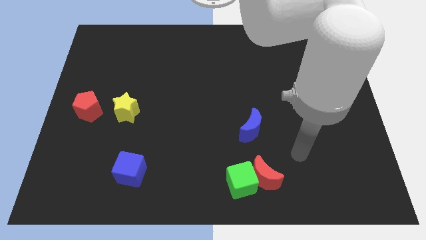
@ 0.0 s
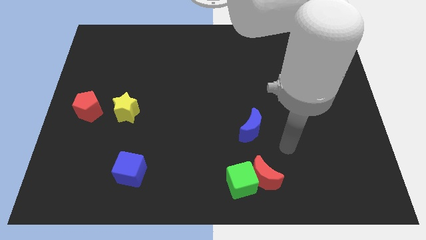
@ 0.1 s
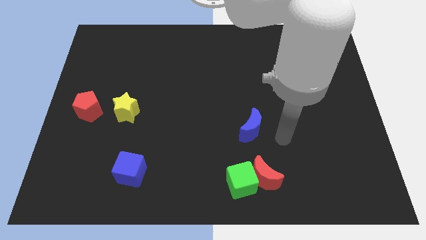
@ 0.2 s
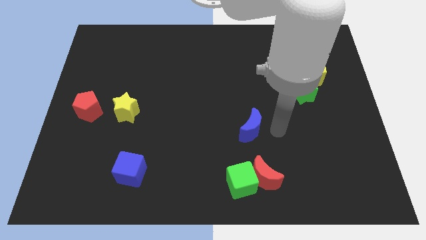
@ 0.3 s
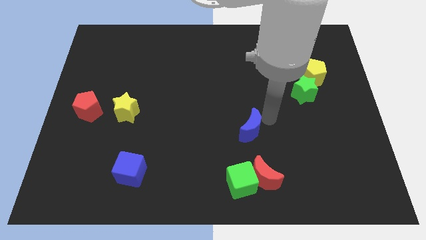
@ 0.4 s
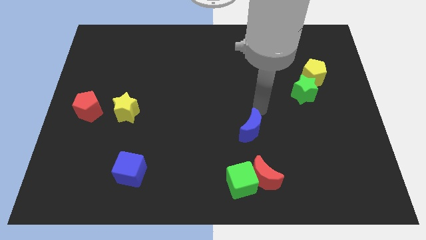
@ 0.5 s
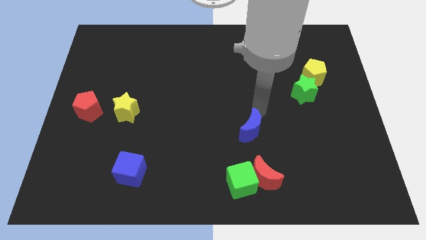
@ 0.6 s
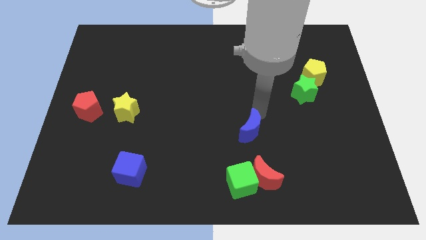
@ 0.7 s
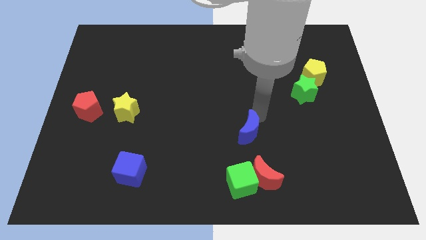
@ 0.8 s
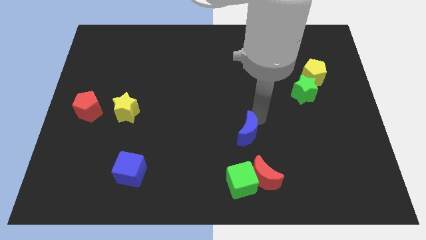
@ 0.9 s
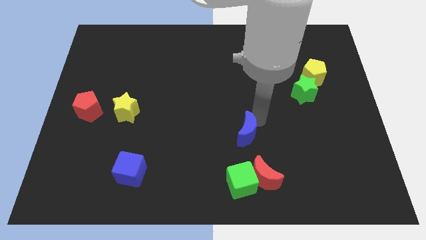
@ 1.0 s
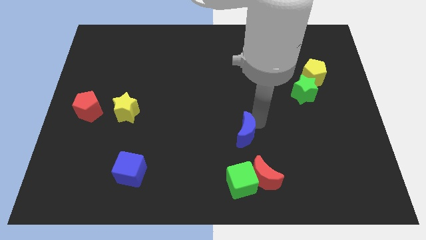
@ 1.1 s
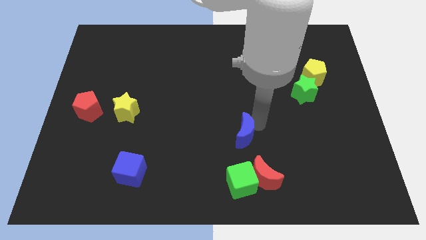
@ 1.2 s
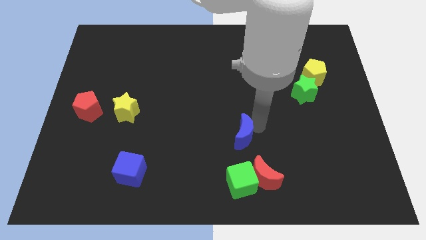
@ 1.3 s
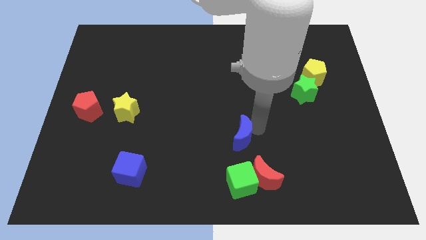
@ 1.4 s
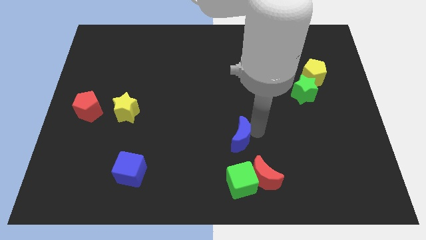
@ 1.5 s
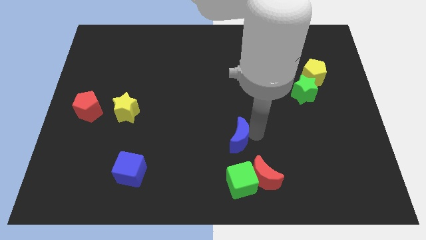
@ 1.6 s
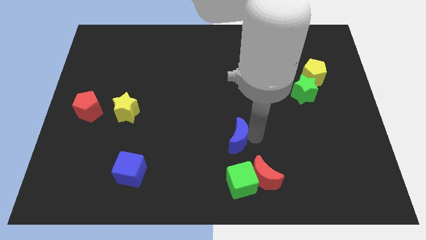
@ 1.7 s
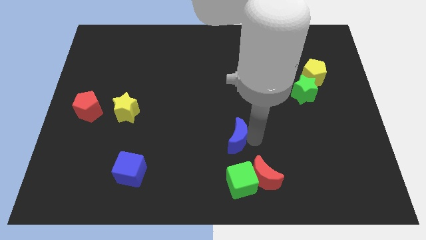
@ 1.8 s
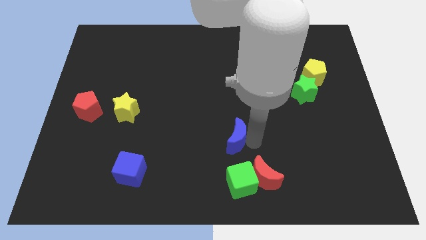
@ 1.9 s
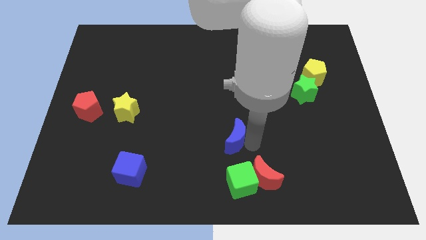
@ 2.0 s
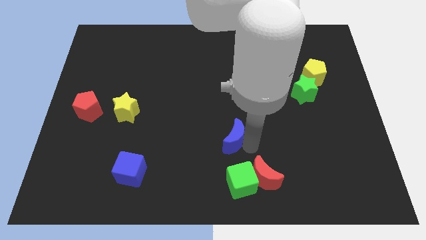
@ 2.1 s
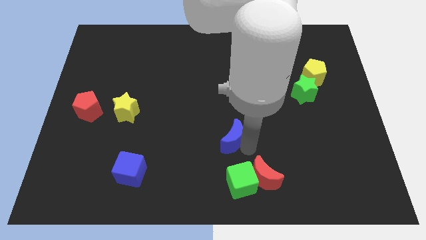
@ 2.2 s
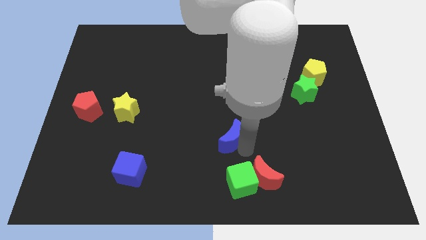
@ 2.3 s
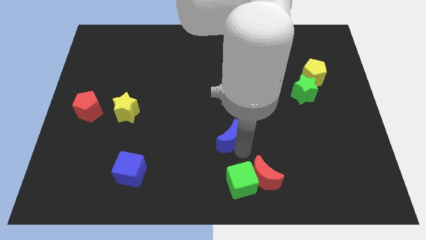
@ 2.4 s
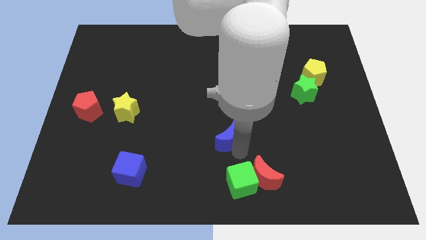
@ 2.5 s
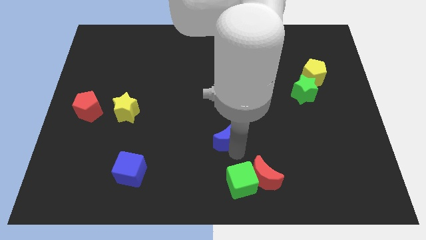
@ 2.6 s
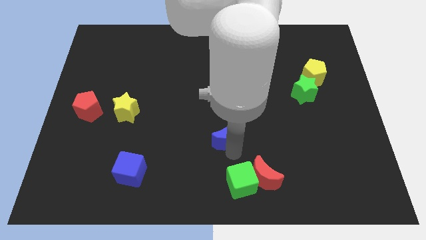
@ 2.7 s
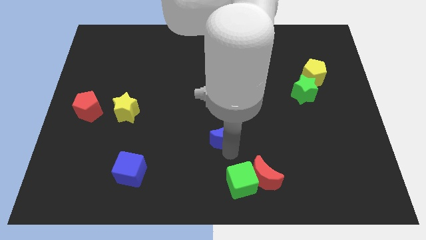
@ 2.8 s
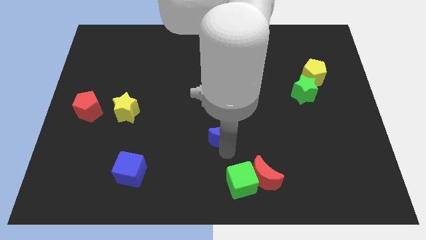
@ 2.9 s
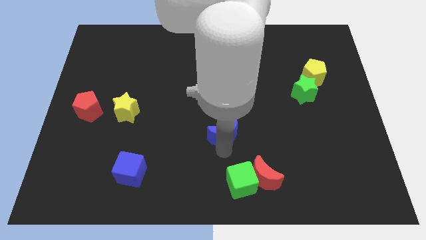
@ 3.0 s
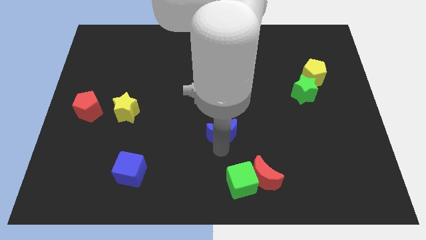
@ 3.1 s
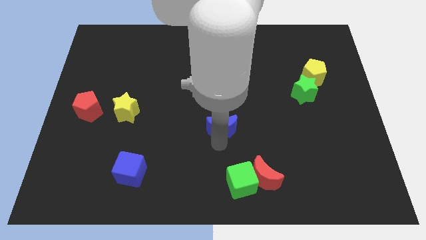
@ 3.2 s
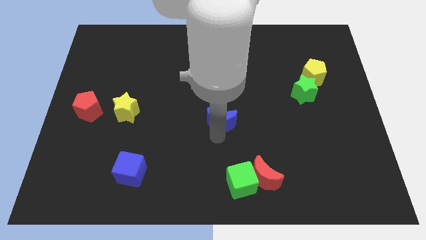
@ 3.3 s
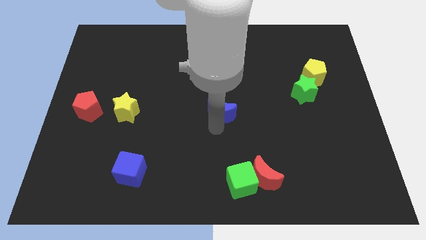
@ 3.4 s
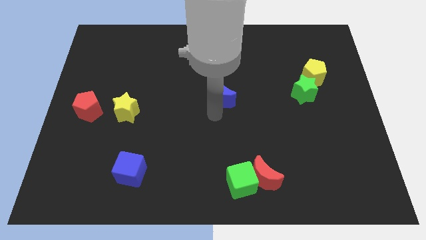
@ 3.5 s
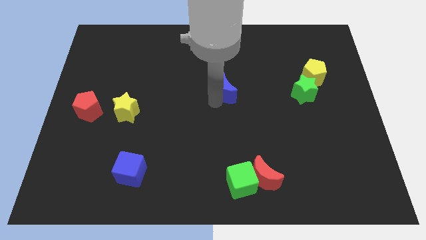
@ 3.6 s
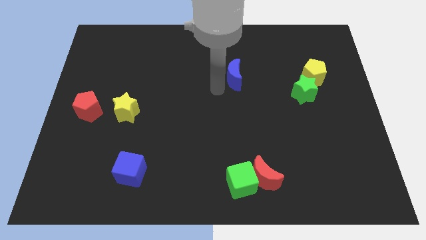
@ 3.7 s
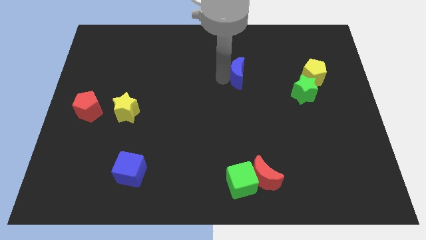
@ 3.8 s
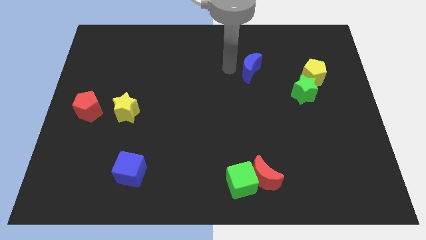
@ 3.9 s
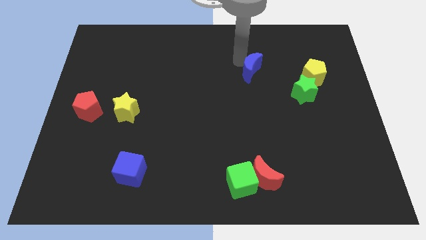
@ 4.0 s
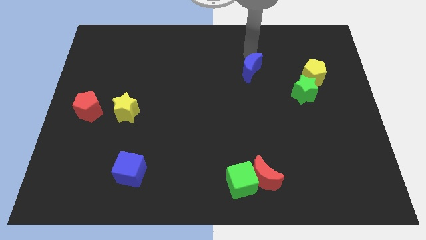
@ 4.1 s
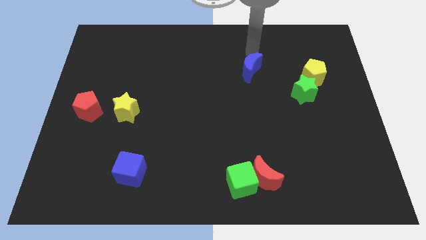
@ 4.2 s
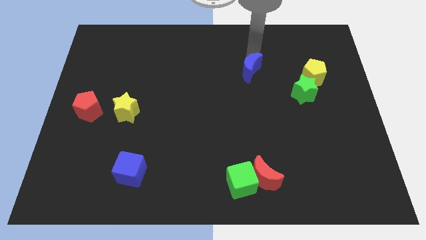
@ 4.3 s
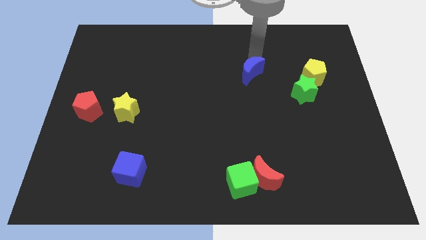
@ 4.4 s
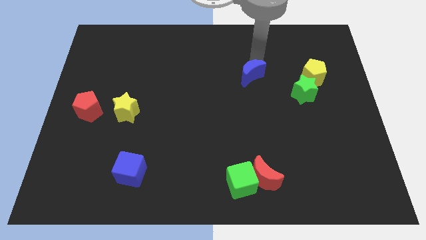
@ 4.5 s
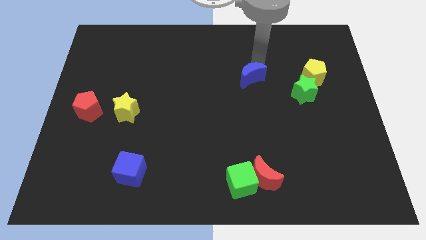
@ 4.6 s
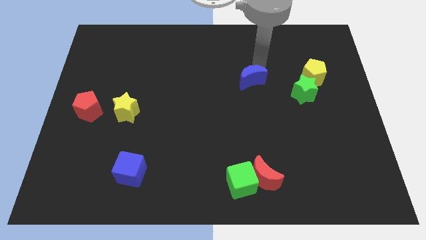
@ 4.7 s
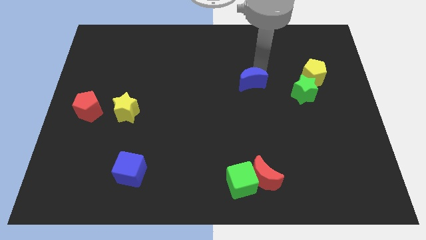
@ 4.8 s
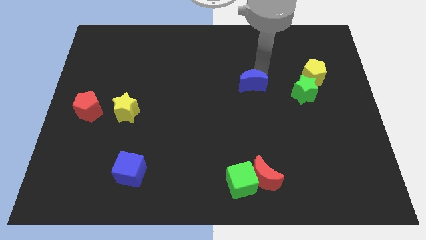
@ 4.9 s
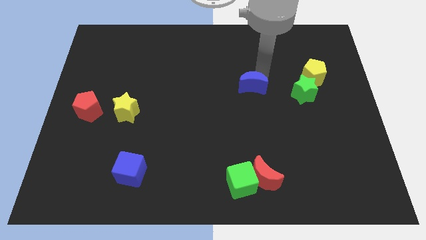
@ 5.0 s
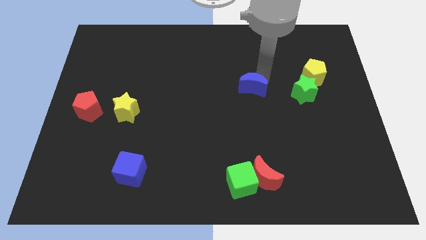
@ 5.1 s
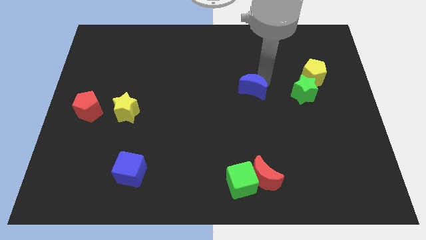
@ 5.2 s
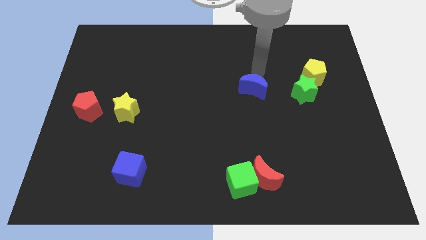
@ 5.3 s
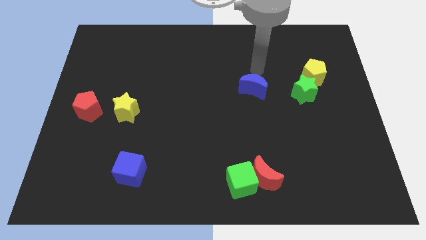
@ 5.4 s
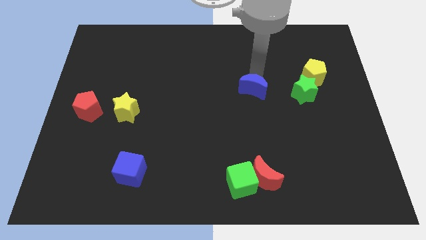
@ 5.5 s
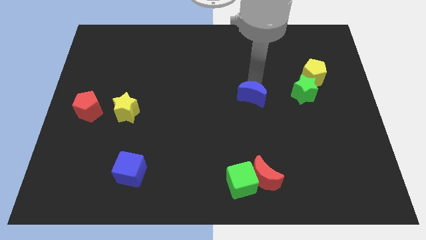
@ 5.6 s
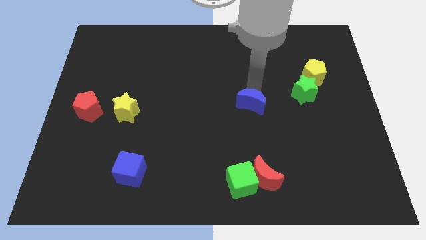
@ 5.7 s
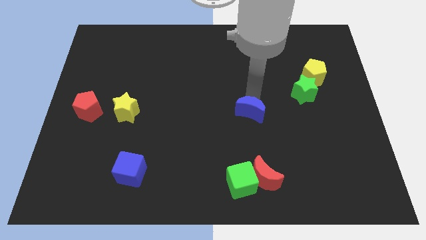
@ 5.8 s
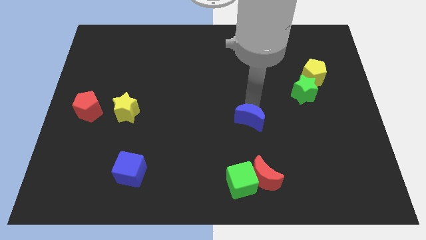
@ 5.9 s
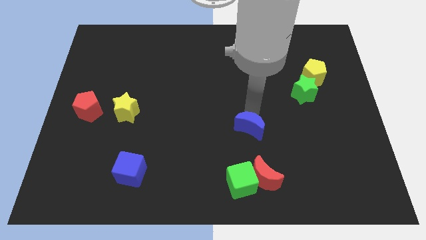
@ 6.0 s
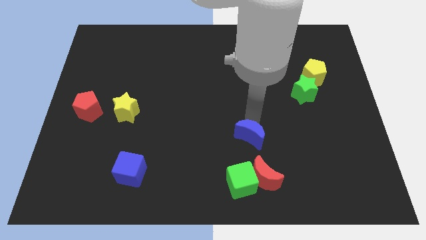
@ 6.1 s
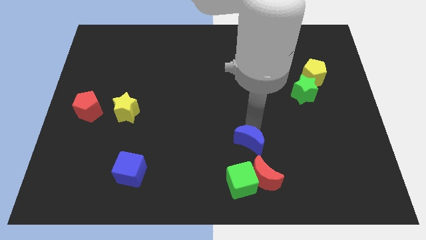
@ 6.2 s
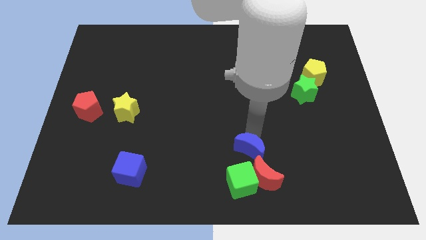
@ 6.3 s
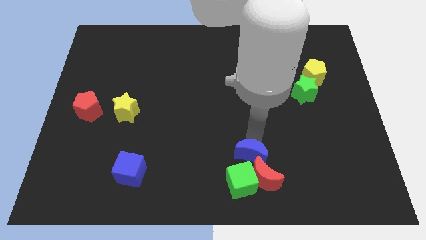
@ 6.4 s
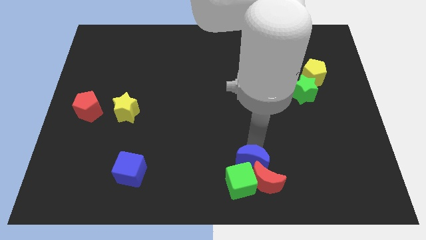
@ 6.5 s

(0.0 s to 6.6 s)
move the blue moon close to the green cube

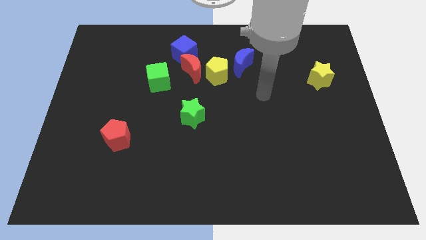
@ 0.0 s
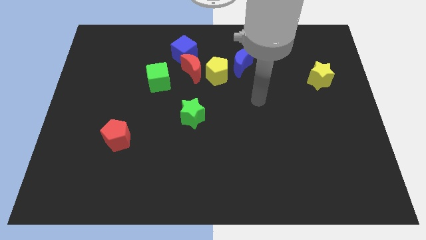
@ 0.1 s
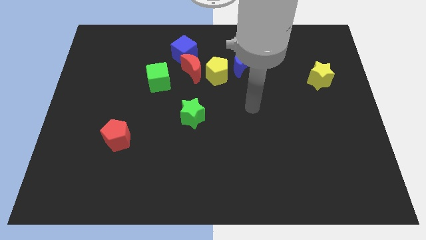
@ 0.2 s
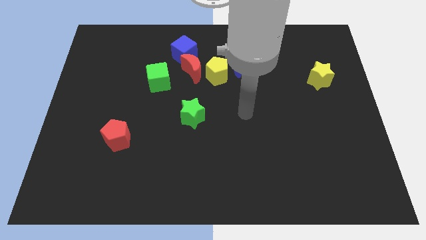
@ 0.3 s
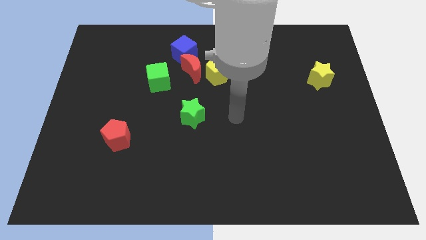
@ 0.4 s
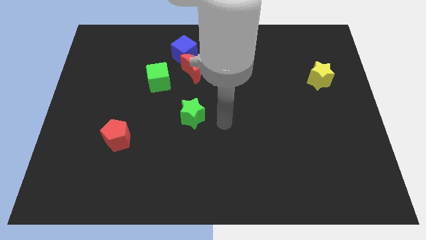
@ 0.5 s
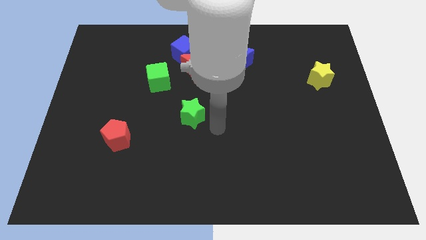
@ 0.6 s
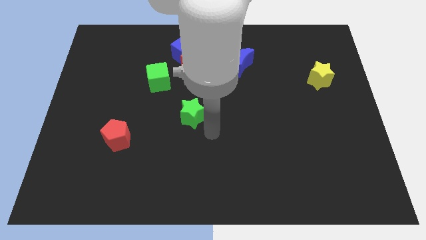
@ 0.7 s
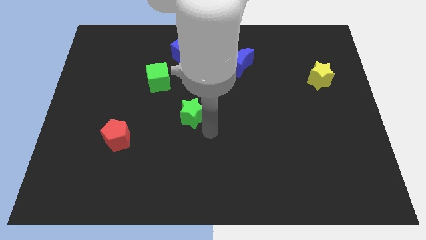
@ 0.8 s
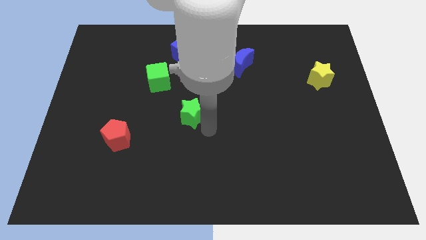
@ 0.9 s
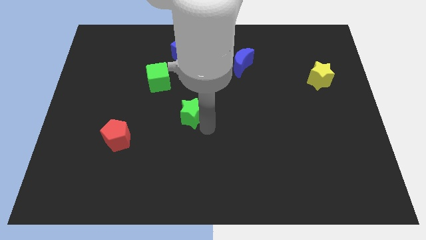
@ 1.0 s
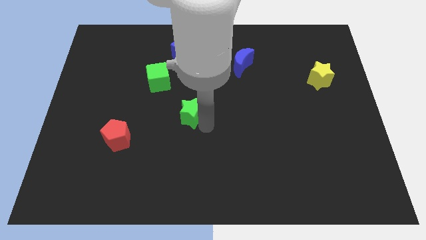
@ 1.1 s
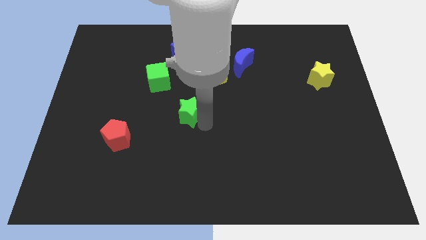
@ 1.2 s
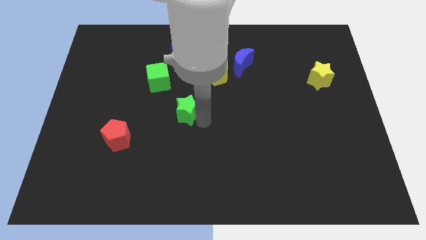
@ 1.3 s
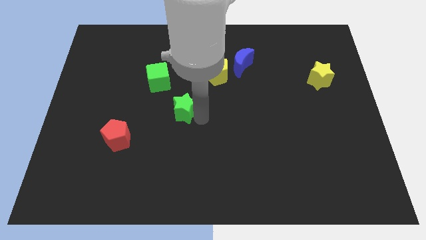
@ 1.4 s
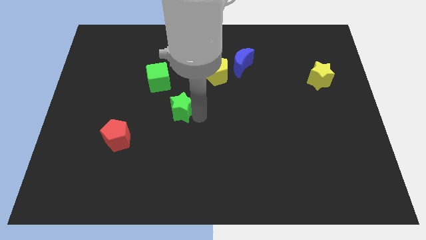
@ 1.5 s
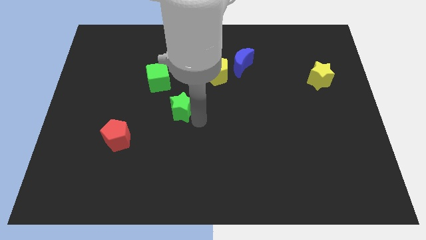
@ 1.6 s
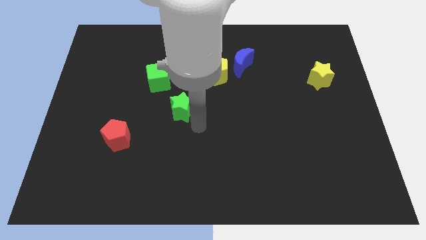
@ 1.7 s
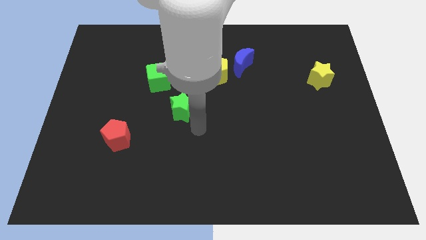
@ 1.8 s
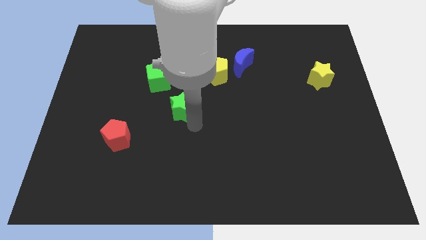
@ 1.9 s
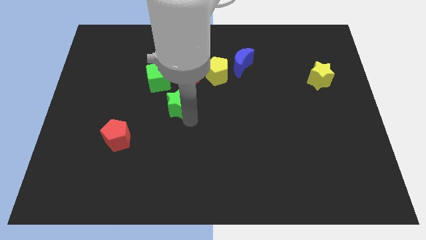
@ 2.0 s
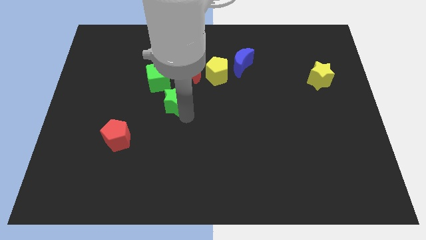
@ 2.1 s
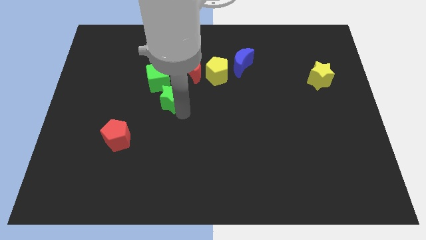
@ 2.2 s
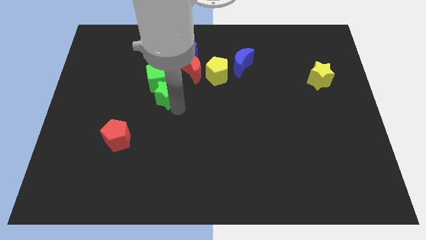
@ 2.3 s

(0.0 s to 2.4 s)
push the green star towards the green cube
